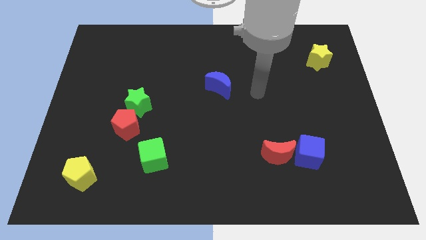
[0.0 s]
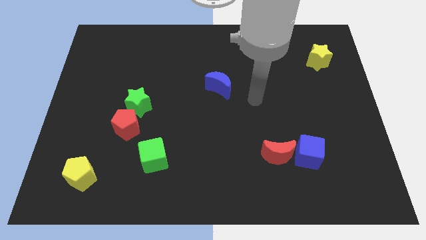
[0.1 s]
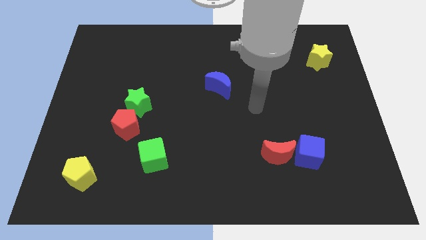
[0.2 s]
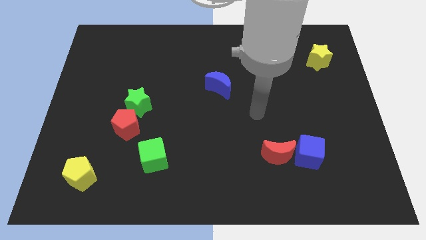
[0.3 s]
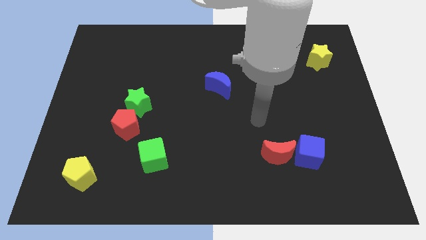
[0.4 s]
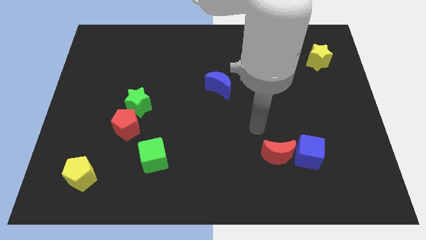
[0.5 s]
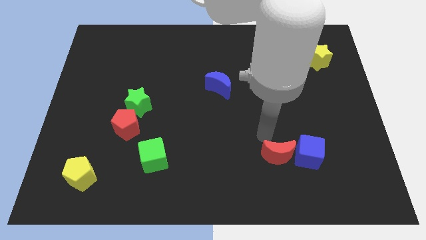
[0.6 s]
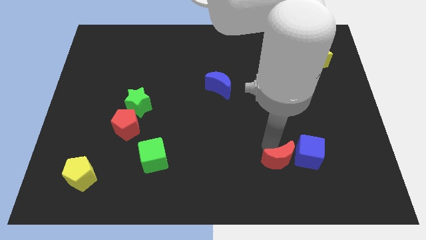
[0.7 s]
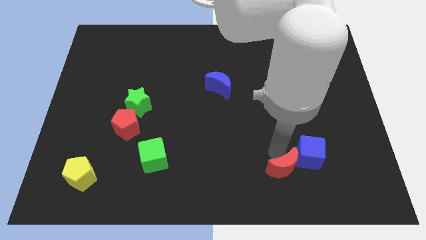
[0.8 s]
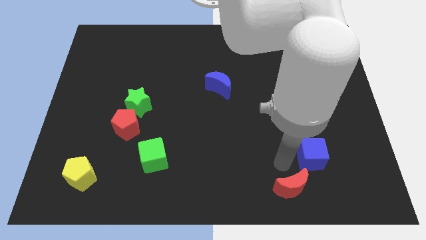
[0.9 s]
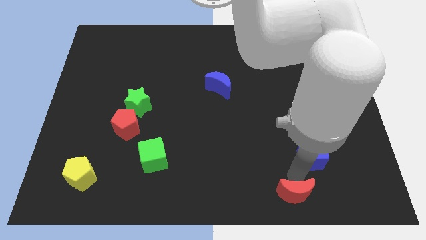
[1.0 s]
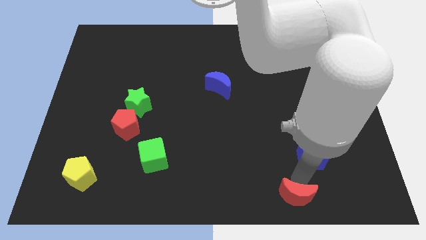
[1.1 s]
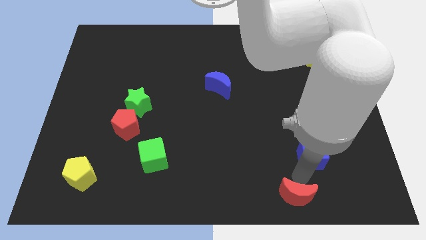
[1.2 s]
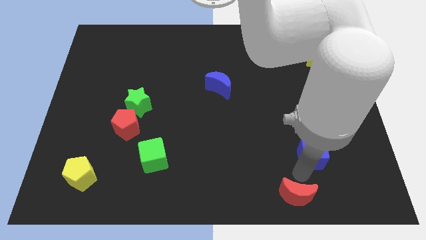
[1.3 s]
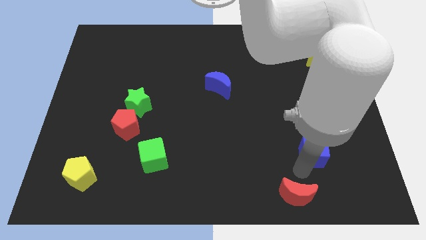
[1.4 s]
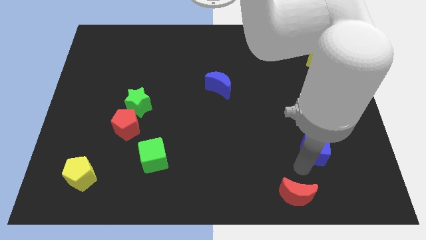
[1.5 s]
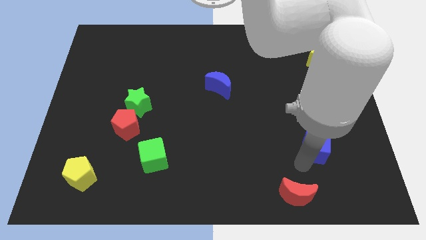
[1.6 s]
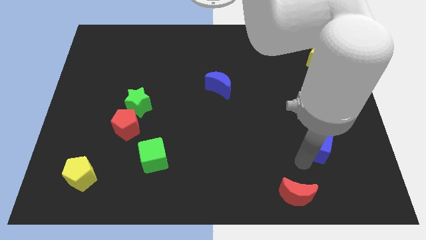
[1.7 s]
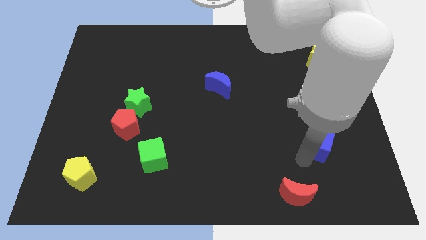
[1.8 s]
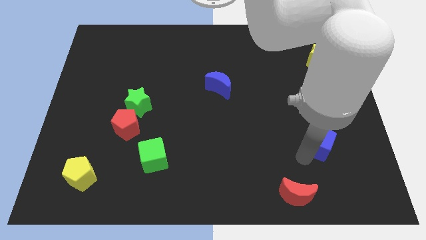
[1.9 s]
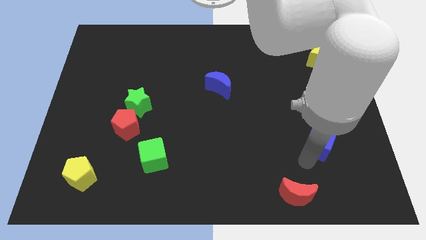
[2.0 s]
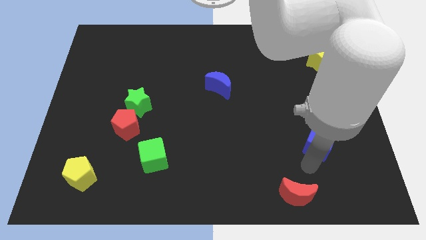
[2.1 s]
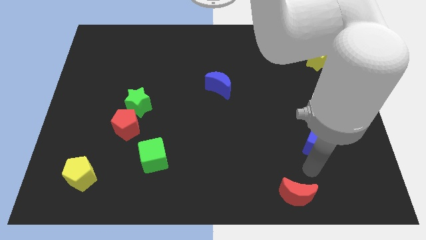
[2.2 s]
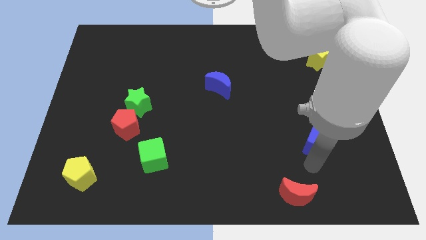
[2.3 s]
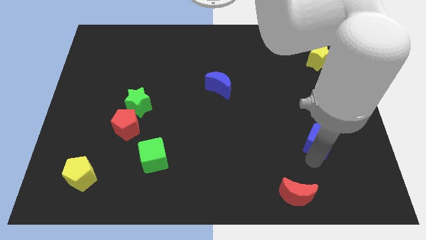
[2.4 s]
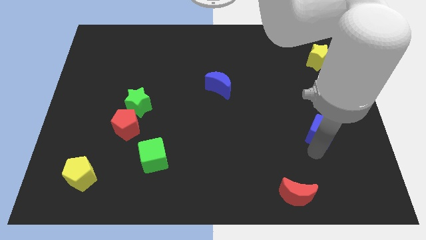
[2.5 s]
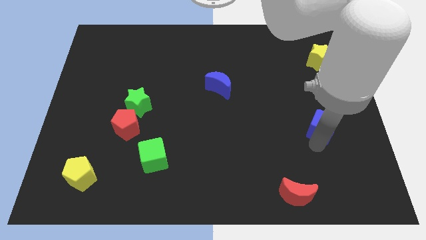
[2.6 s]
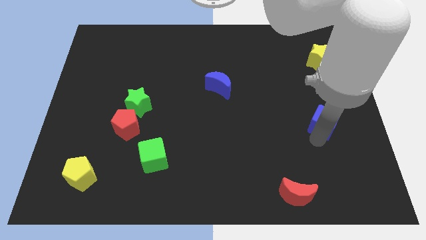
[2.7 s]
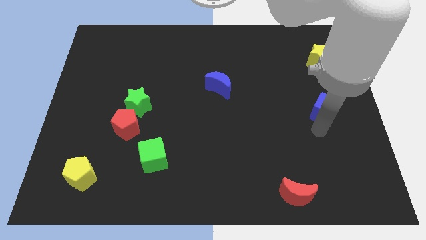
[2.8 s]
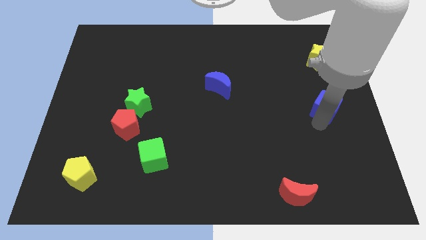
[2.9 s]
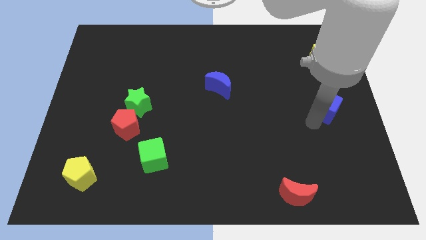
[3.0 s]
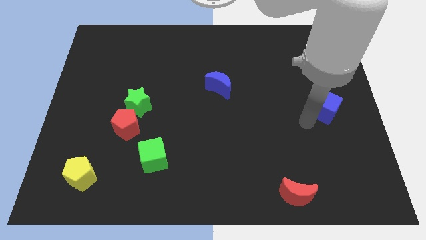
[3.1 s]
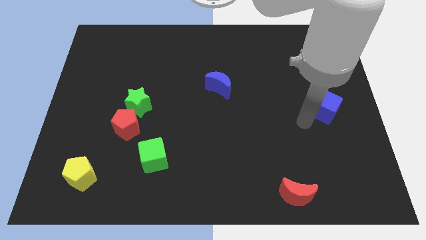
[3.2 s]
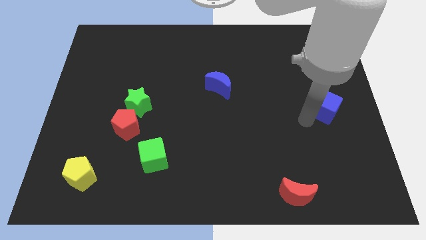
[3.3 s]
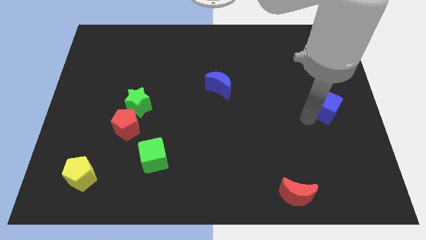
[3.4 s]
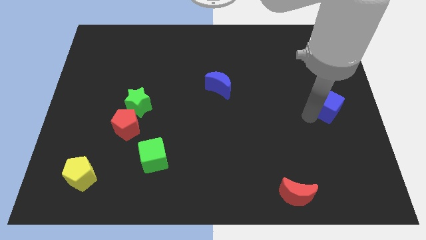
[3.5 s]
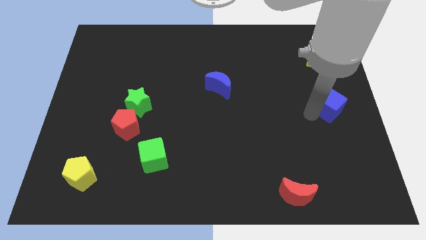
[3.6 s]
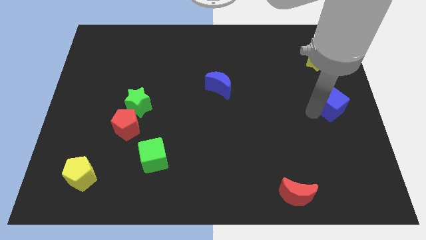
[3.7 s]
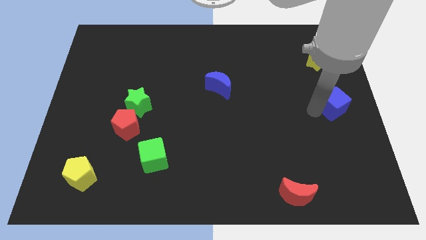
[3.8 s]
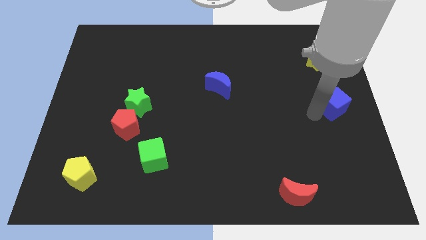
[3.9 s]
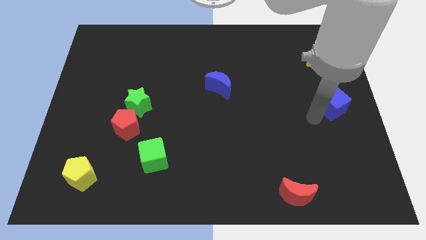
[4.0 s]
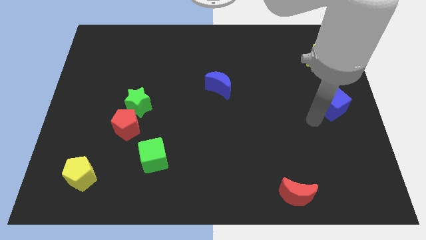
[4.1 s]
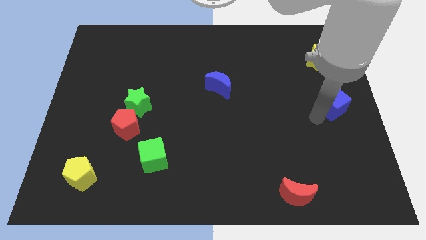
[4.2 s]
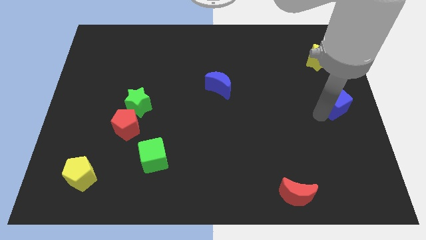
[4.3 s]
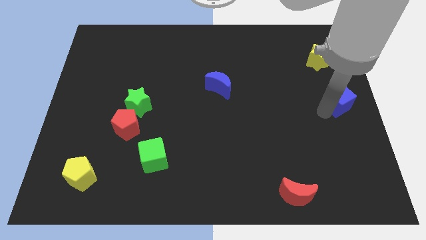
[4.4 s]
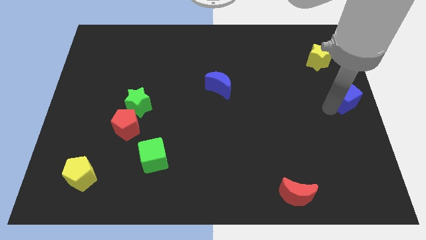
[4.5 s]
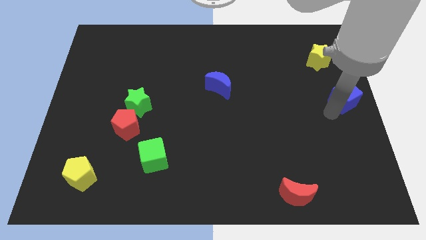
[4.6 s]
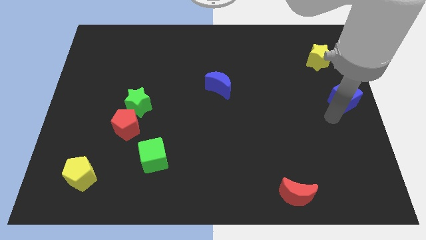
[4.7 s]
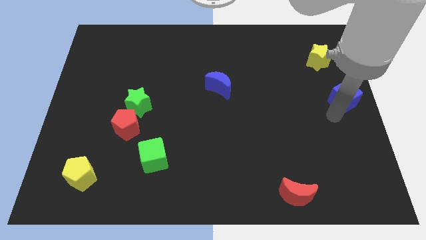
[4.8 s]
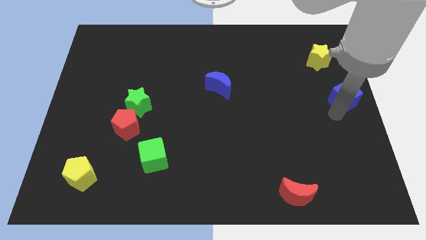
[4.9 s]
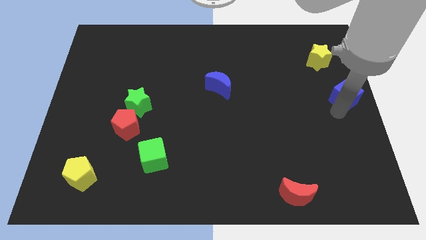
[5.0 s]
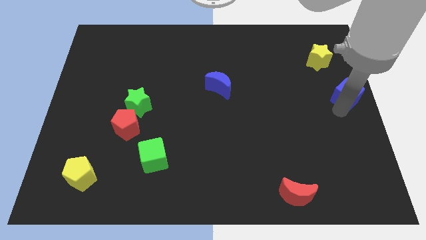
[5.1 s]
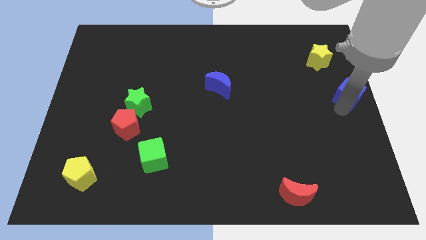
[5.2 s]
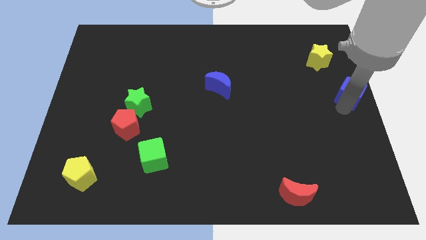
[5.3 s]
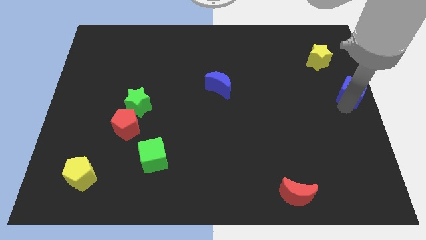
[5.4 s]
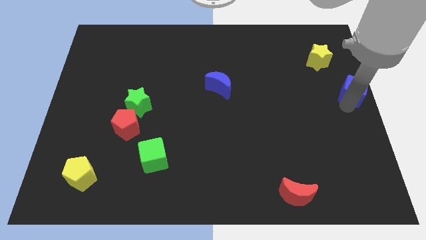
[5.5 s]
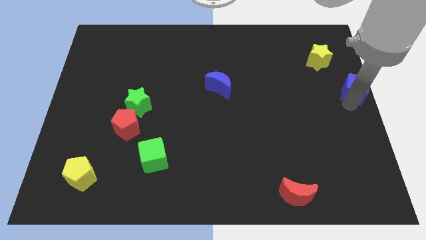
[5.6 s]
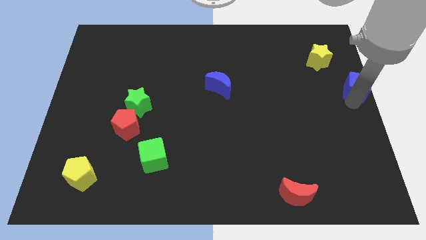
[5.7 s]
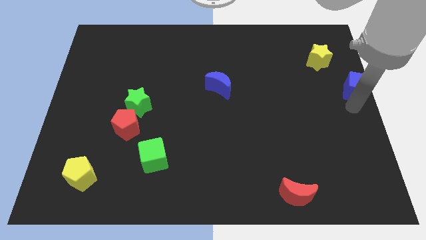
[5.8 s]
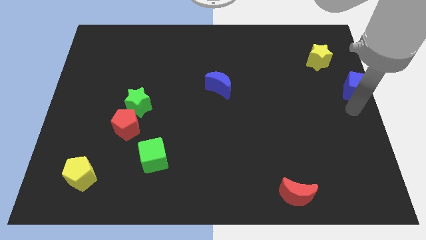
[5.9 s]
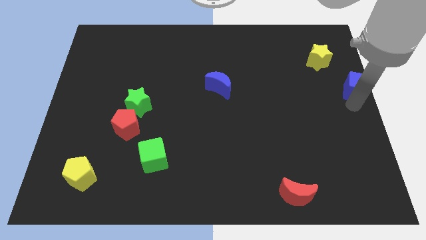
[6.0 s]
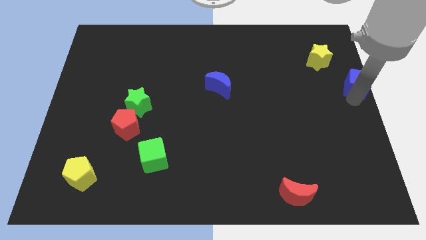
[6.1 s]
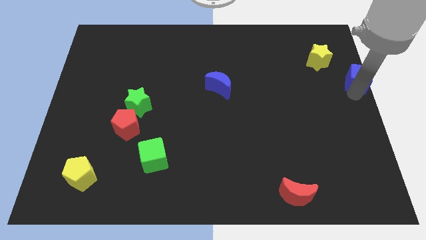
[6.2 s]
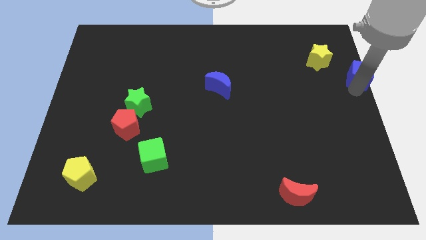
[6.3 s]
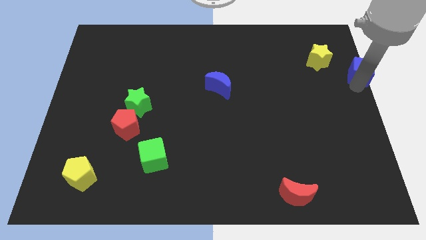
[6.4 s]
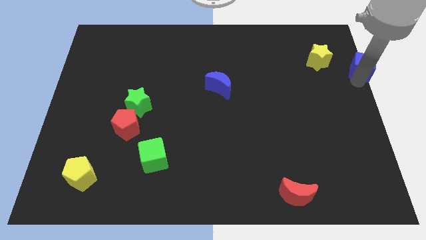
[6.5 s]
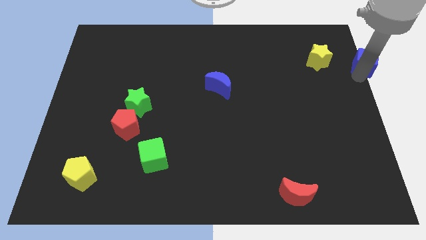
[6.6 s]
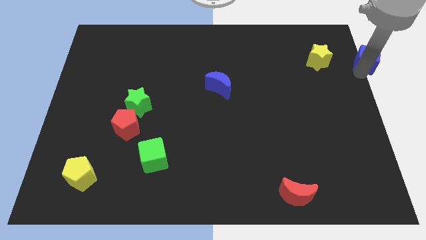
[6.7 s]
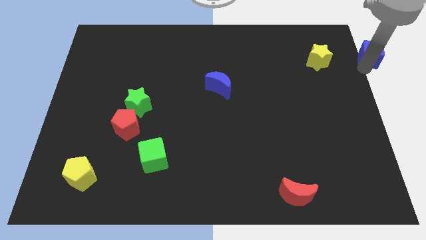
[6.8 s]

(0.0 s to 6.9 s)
move the blue cube to the top right of the board
